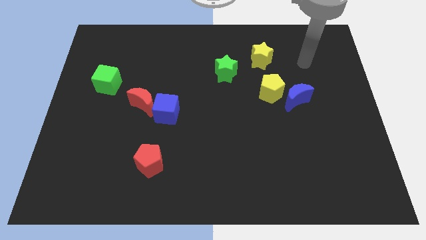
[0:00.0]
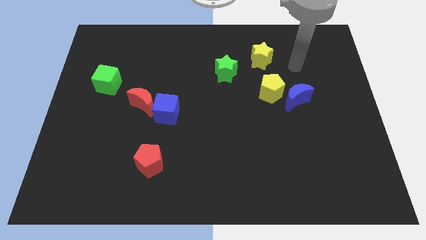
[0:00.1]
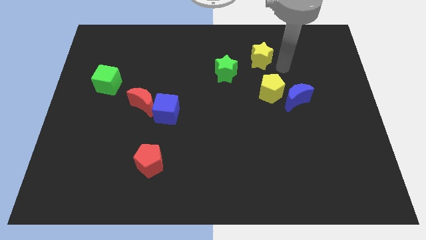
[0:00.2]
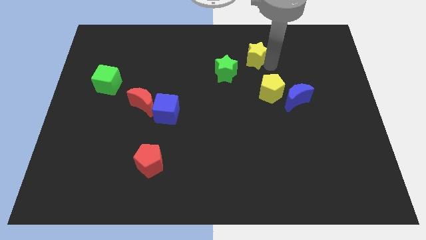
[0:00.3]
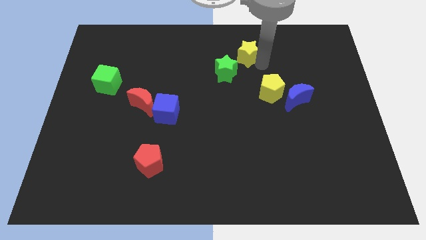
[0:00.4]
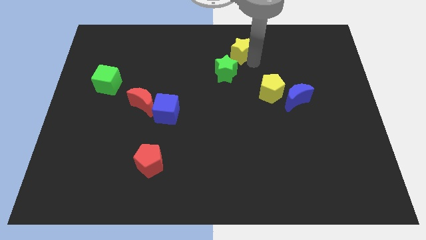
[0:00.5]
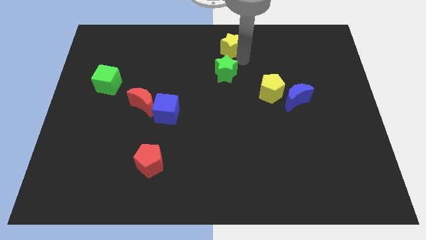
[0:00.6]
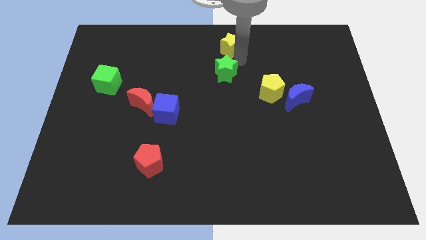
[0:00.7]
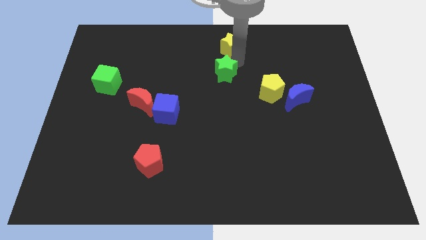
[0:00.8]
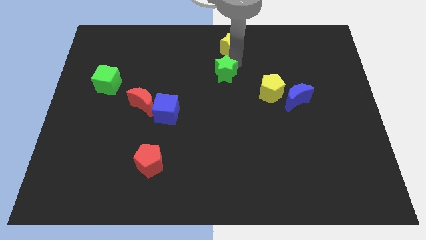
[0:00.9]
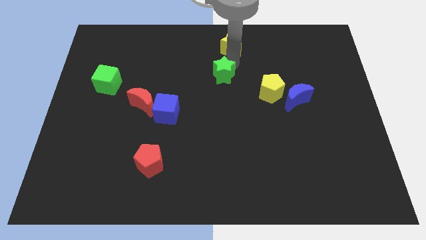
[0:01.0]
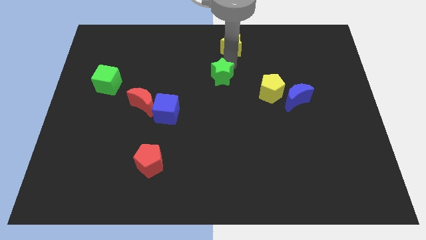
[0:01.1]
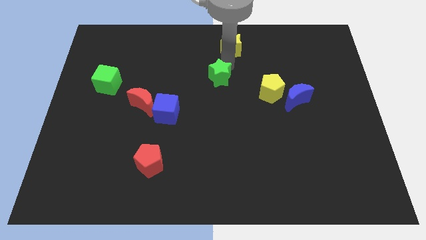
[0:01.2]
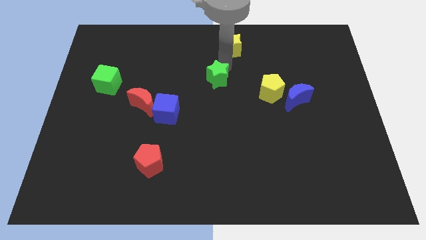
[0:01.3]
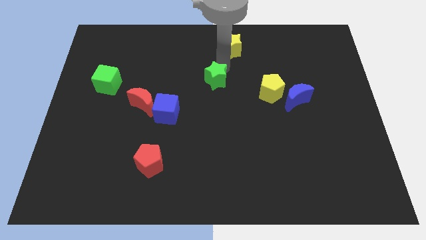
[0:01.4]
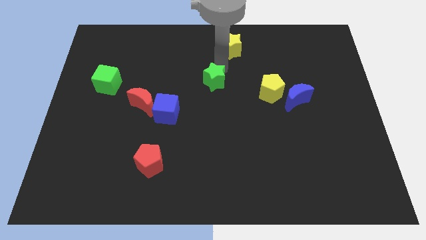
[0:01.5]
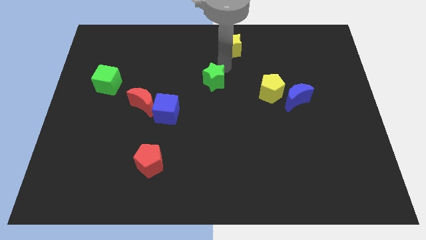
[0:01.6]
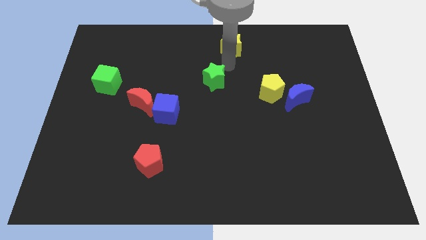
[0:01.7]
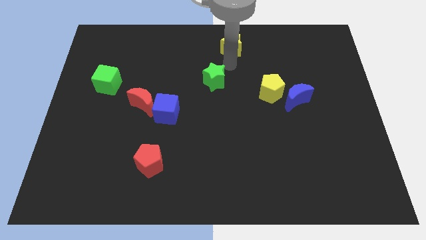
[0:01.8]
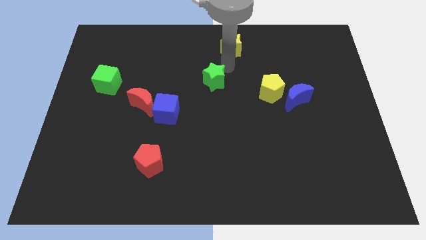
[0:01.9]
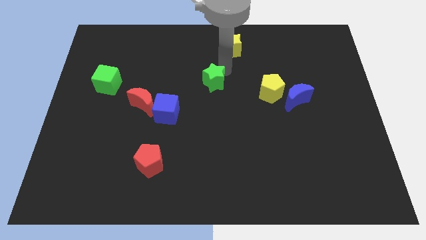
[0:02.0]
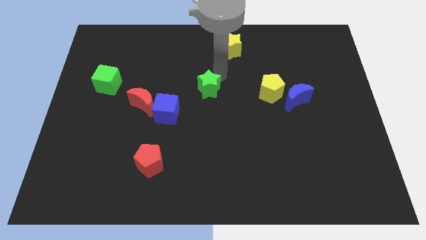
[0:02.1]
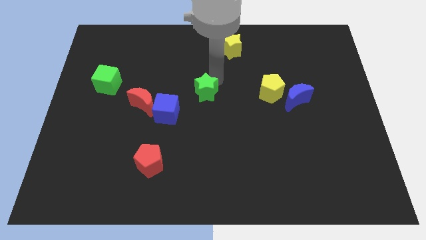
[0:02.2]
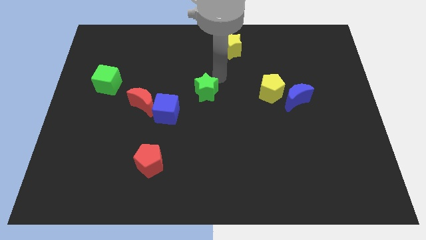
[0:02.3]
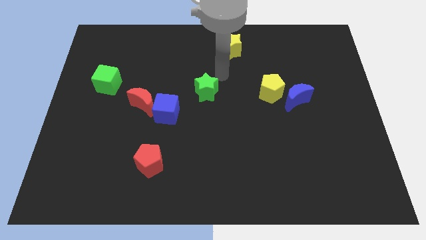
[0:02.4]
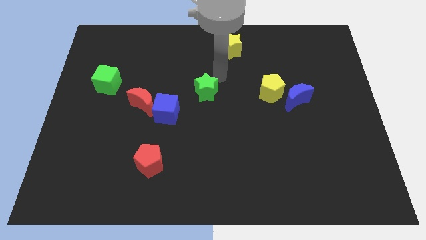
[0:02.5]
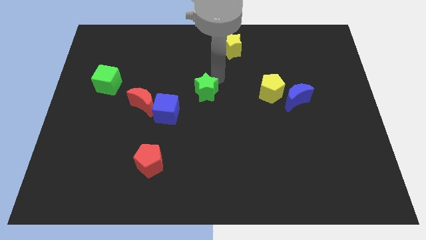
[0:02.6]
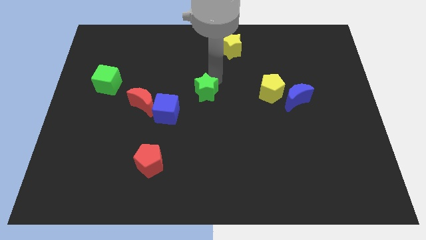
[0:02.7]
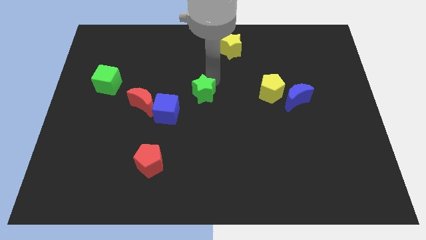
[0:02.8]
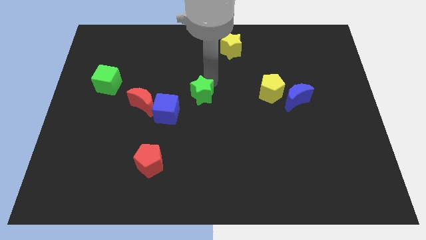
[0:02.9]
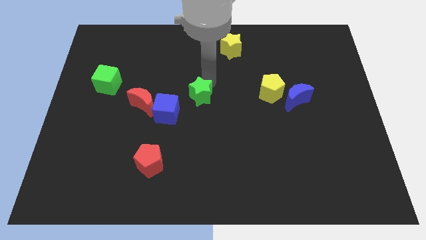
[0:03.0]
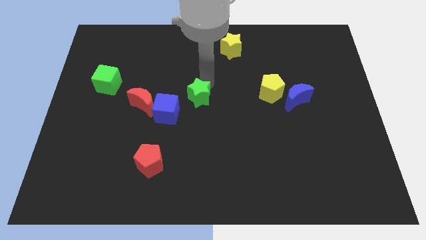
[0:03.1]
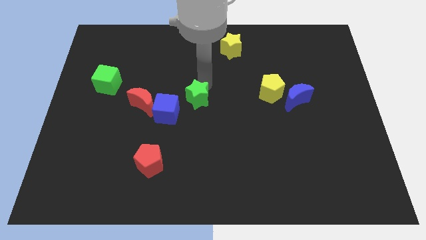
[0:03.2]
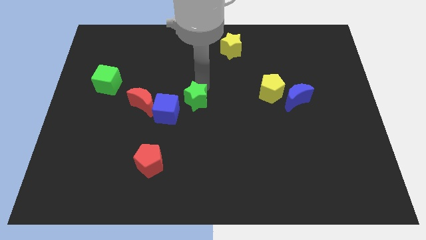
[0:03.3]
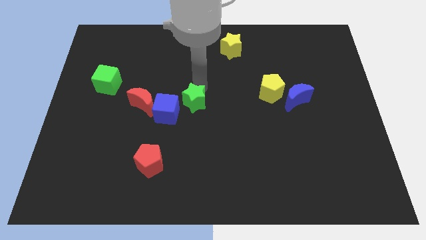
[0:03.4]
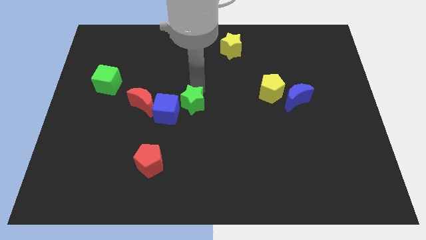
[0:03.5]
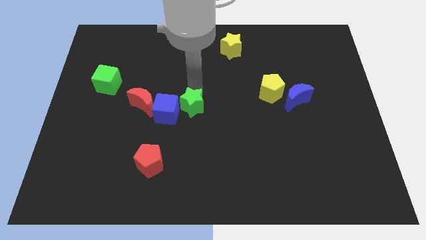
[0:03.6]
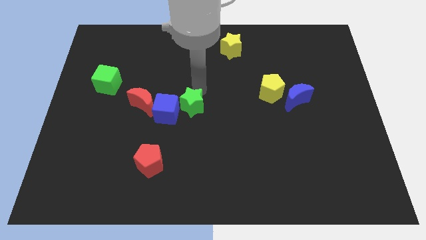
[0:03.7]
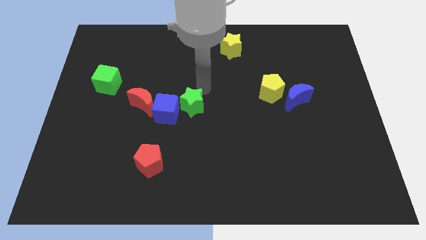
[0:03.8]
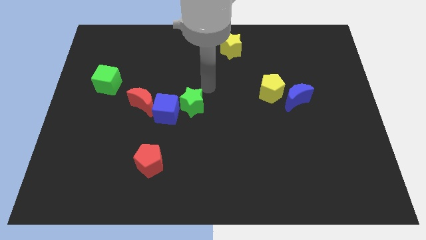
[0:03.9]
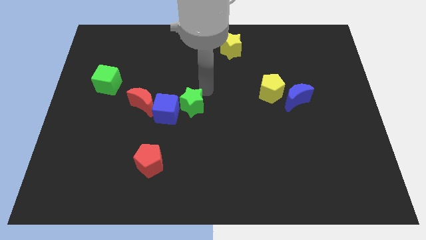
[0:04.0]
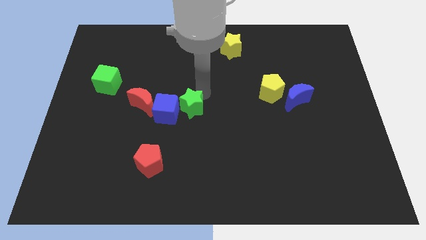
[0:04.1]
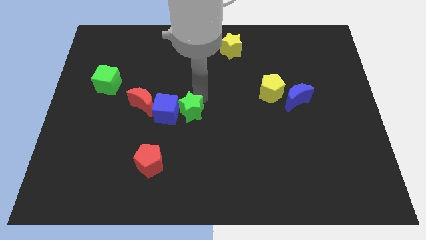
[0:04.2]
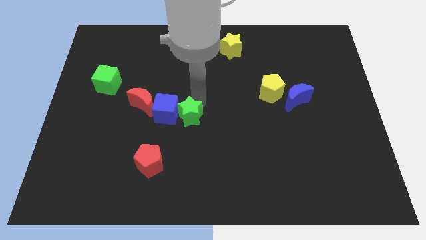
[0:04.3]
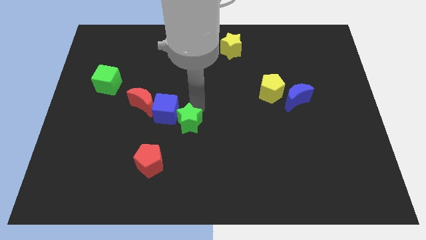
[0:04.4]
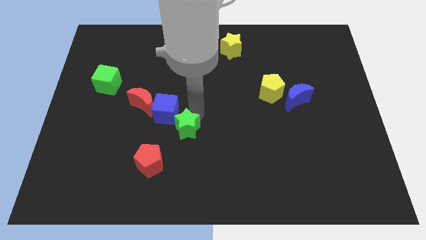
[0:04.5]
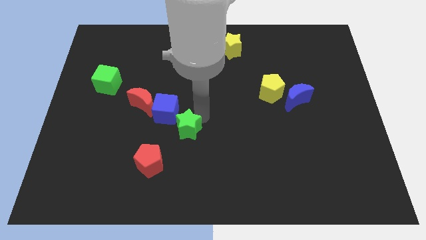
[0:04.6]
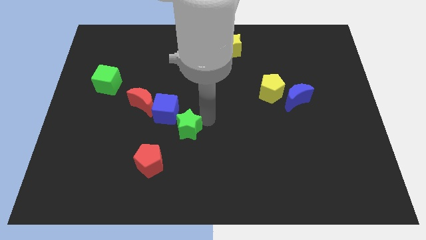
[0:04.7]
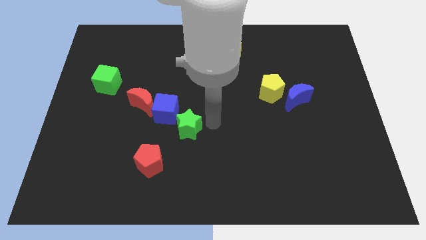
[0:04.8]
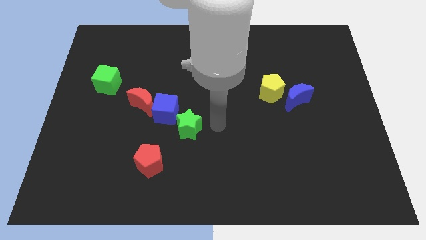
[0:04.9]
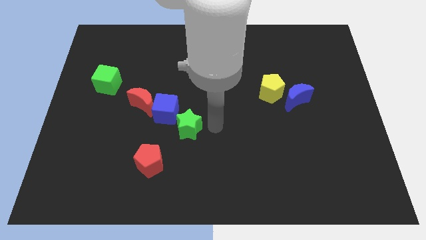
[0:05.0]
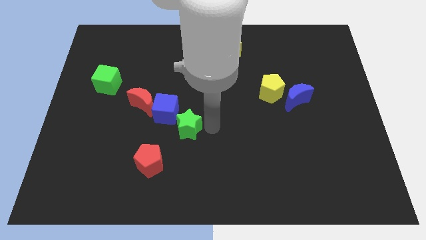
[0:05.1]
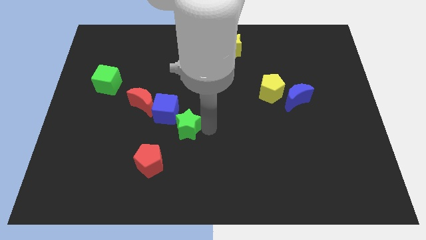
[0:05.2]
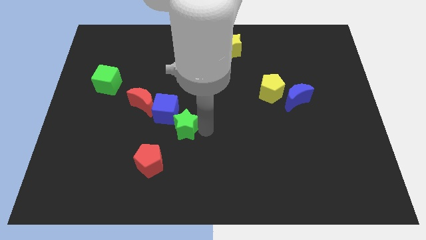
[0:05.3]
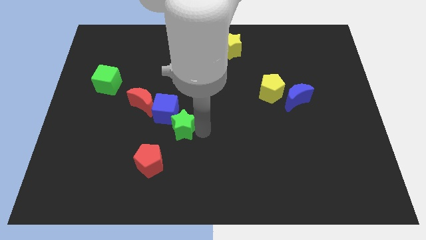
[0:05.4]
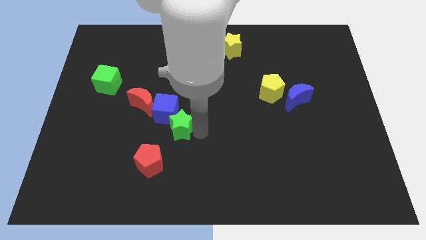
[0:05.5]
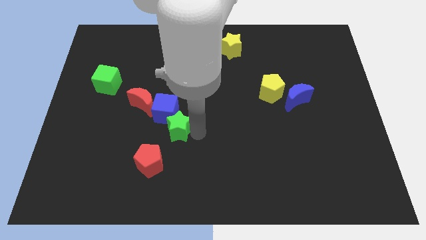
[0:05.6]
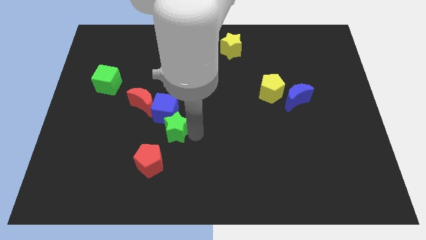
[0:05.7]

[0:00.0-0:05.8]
slide the green star down and to the left diagonally

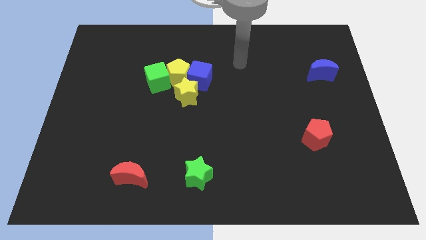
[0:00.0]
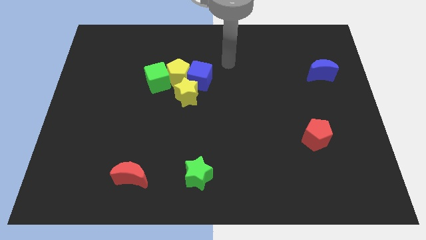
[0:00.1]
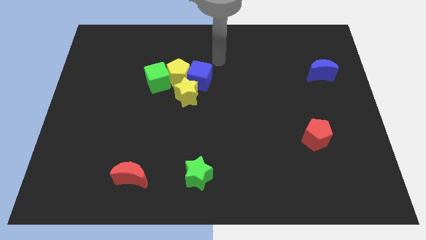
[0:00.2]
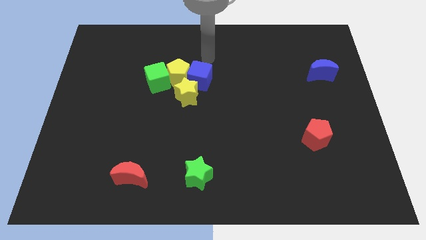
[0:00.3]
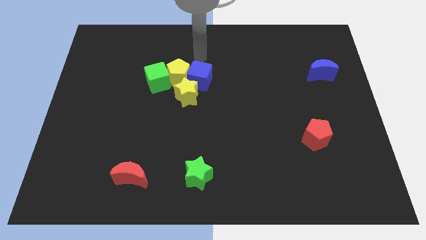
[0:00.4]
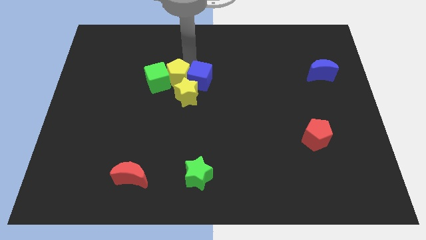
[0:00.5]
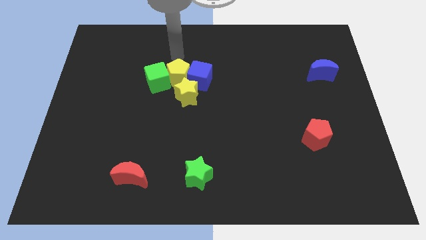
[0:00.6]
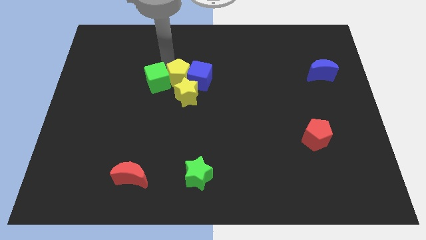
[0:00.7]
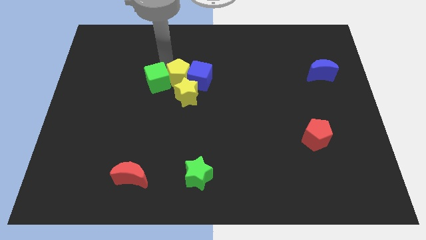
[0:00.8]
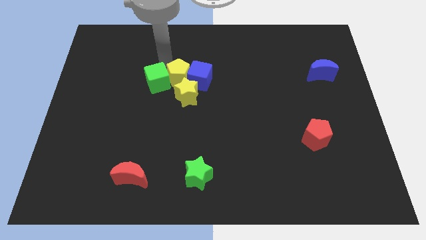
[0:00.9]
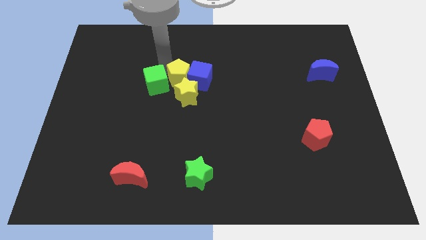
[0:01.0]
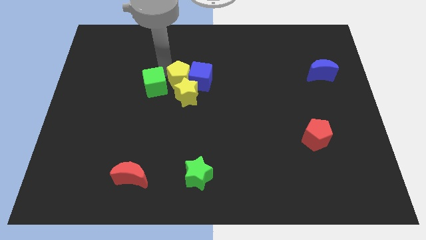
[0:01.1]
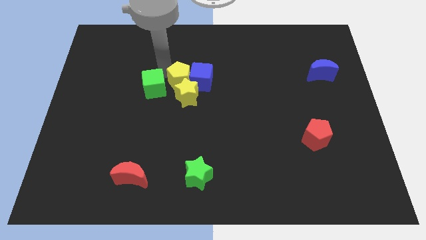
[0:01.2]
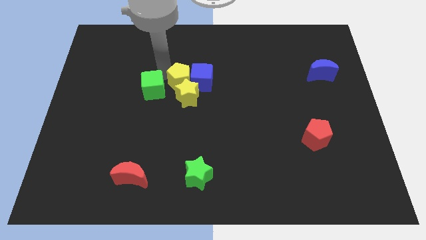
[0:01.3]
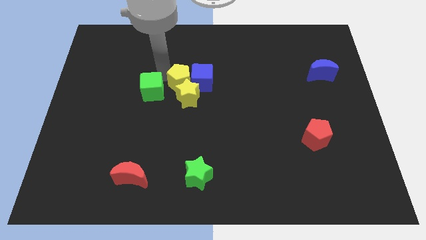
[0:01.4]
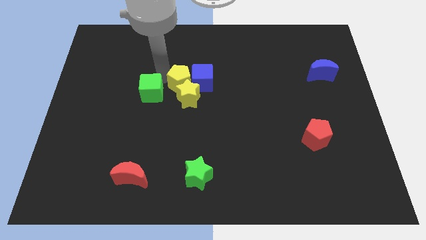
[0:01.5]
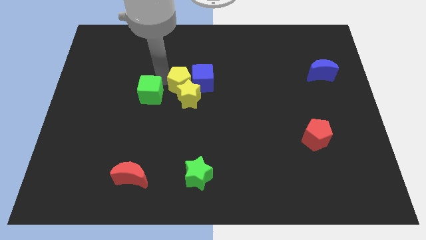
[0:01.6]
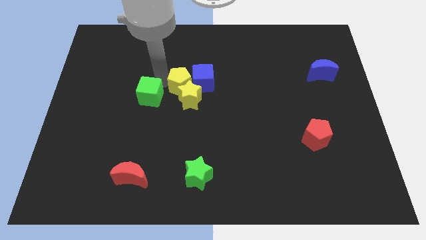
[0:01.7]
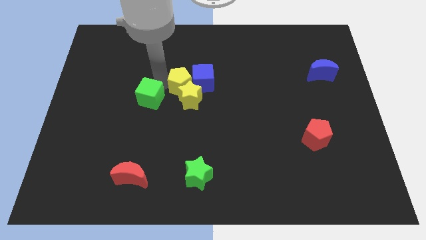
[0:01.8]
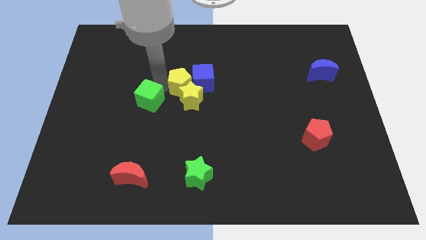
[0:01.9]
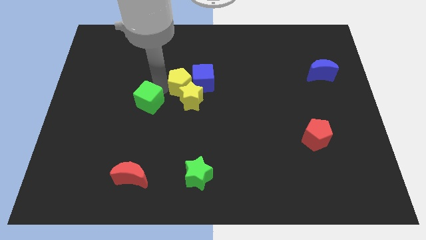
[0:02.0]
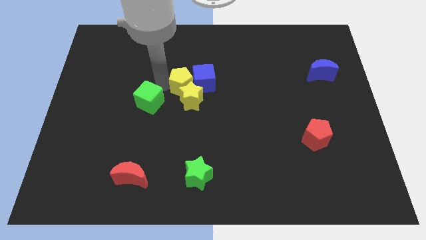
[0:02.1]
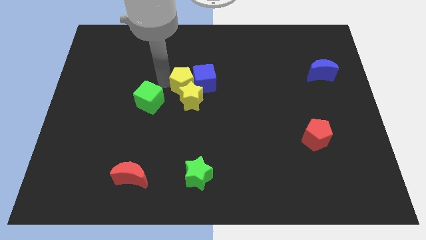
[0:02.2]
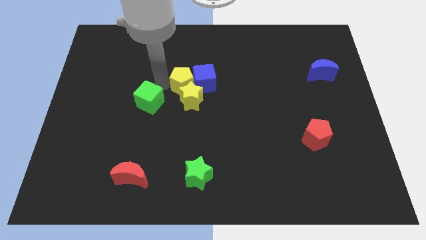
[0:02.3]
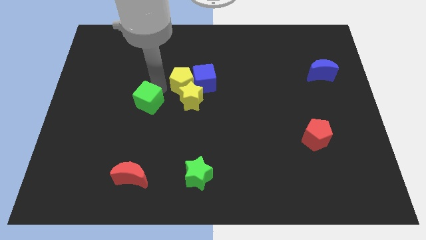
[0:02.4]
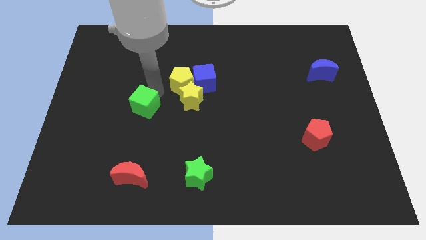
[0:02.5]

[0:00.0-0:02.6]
move the green cube down somewhat
